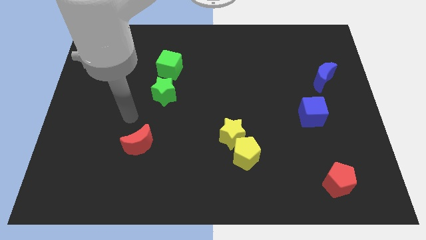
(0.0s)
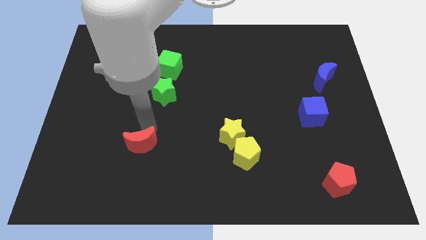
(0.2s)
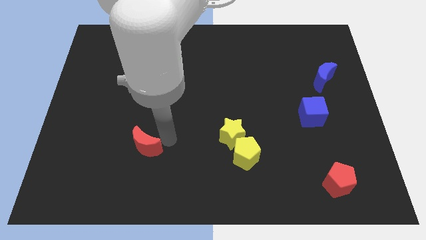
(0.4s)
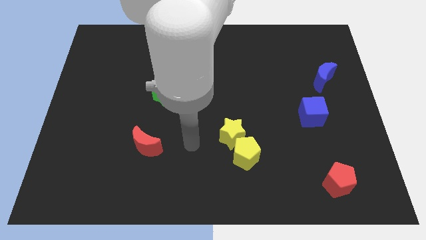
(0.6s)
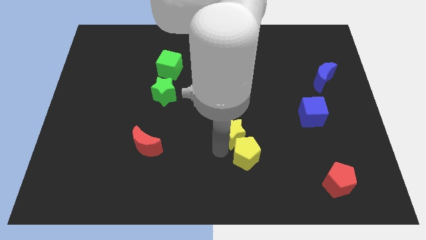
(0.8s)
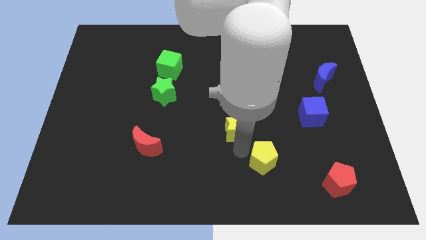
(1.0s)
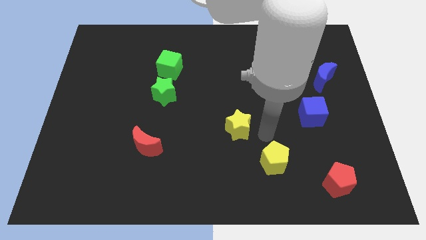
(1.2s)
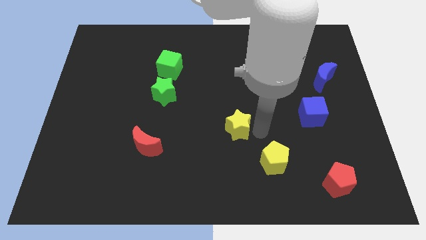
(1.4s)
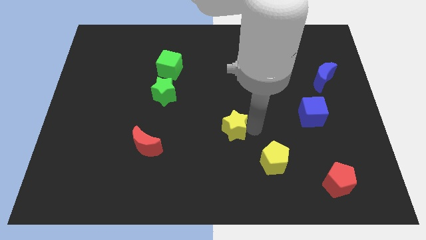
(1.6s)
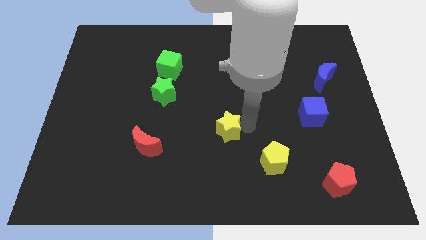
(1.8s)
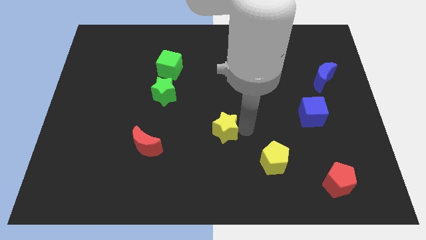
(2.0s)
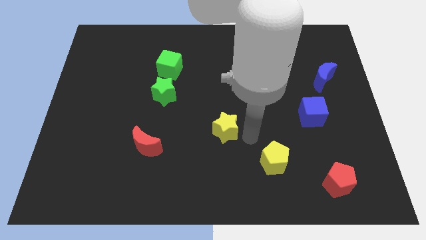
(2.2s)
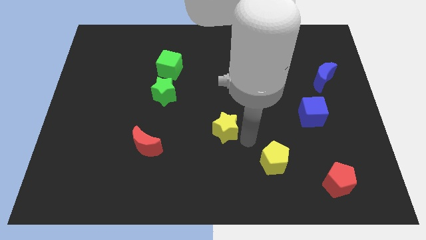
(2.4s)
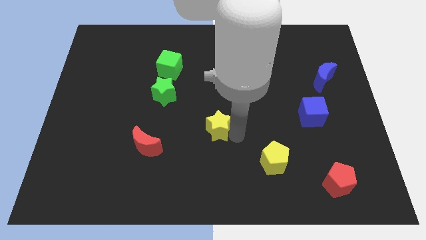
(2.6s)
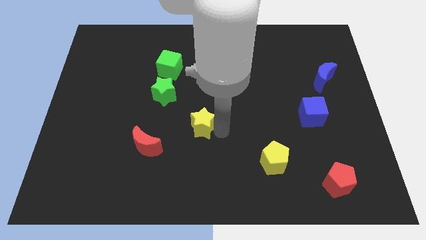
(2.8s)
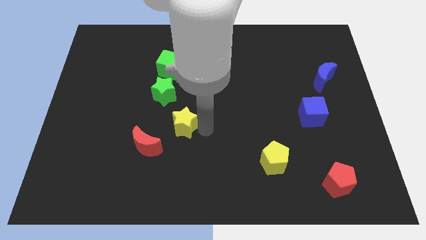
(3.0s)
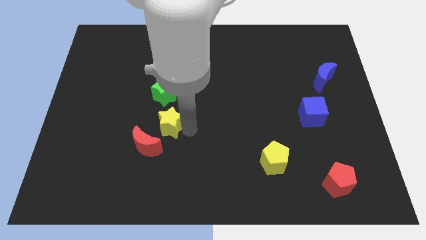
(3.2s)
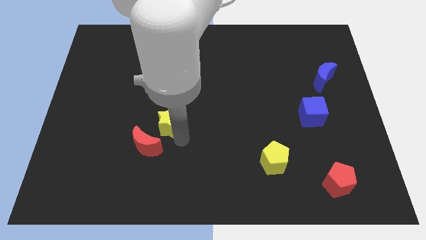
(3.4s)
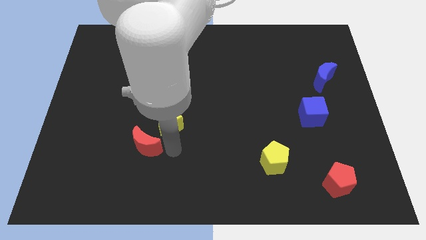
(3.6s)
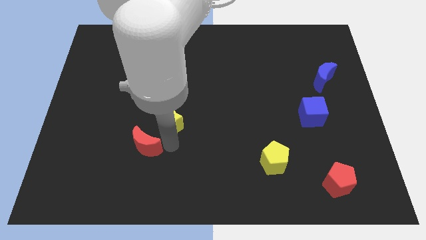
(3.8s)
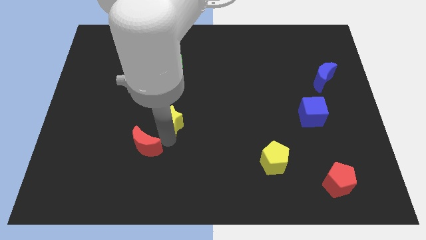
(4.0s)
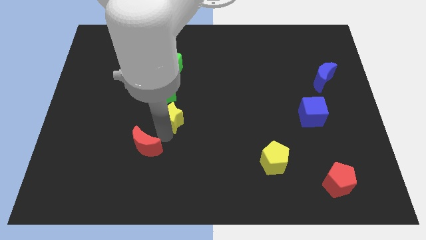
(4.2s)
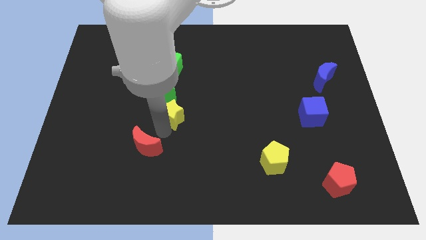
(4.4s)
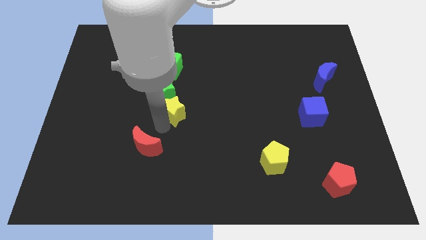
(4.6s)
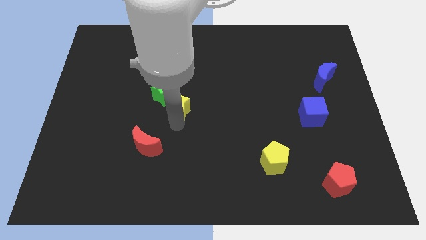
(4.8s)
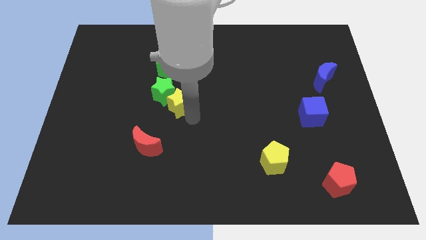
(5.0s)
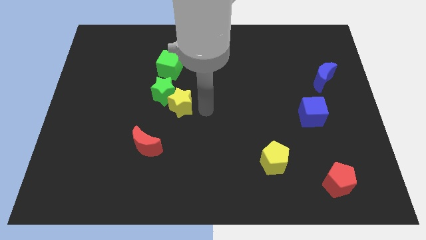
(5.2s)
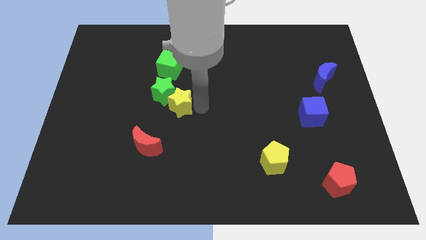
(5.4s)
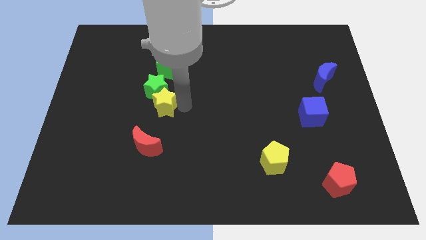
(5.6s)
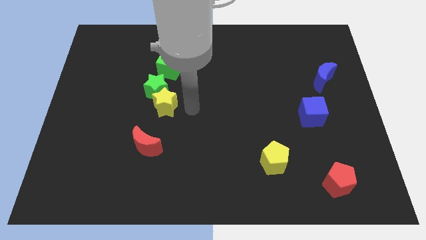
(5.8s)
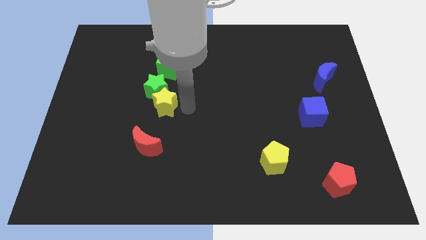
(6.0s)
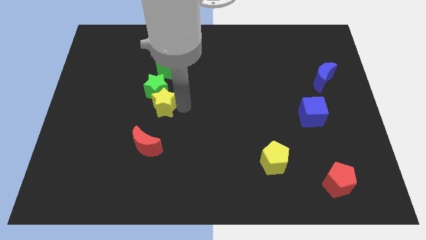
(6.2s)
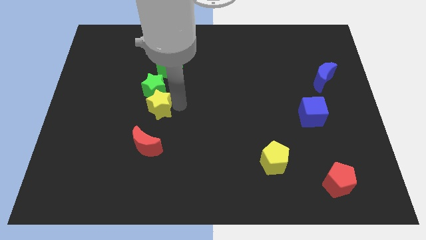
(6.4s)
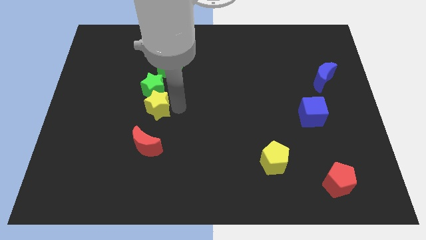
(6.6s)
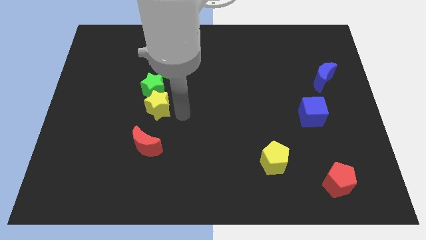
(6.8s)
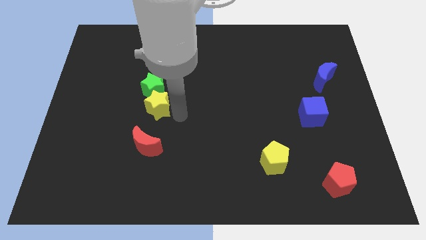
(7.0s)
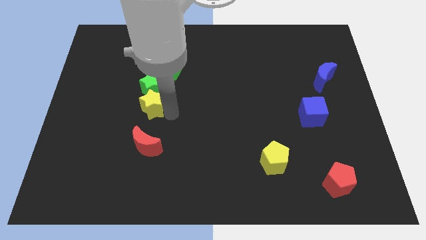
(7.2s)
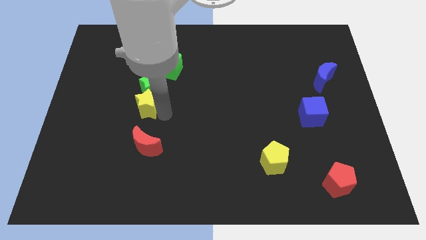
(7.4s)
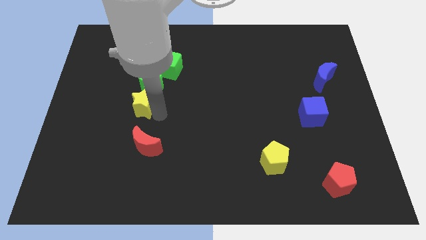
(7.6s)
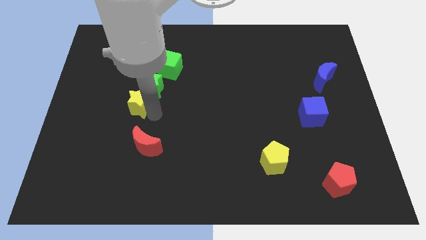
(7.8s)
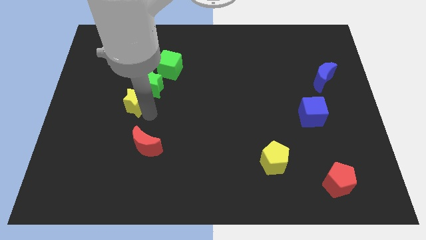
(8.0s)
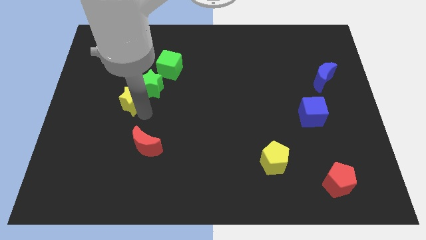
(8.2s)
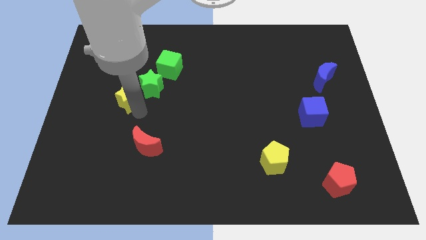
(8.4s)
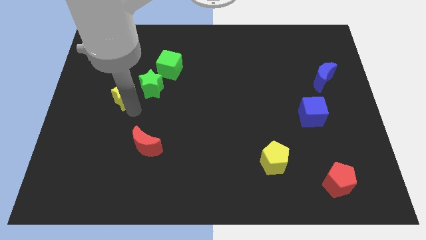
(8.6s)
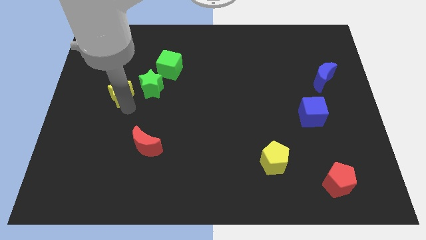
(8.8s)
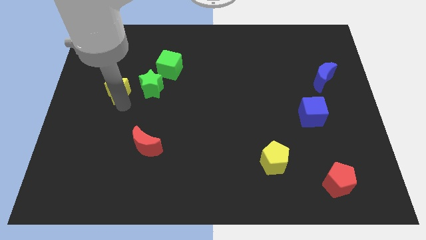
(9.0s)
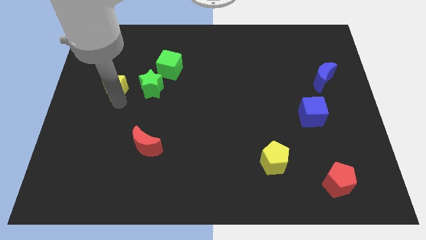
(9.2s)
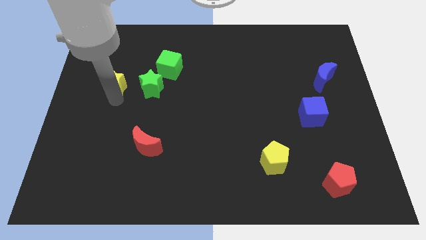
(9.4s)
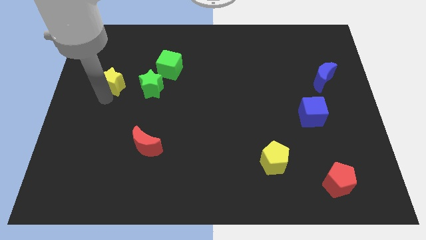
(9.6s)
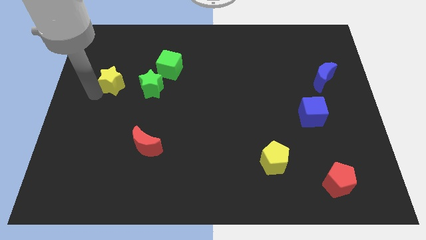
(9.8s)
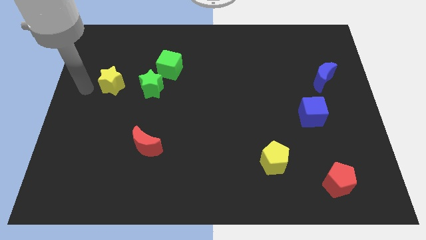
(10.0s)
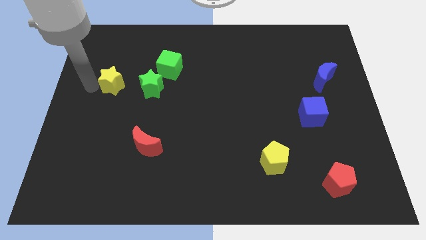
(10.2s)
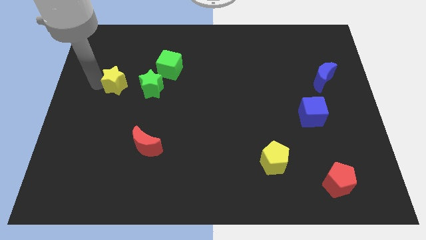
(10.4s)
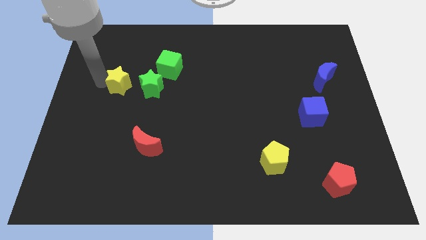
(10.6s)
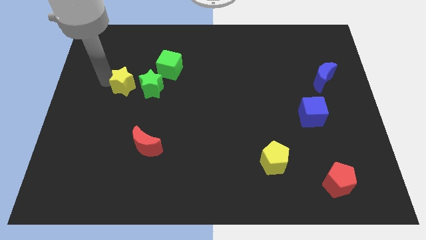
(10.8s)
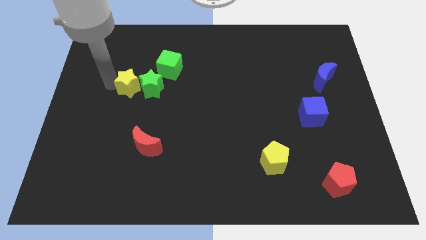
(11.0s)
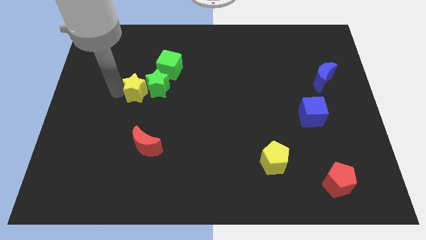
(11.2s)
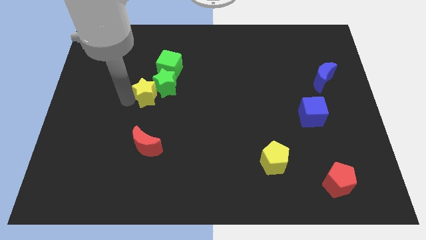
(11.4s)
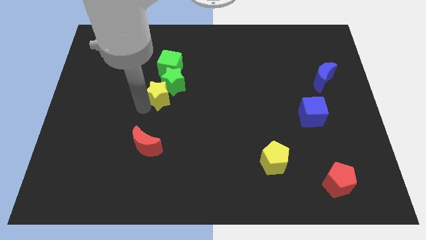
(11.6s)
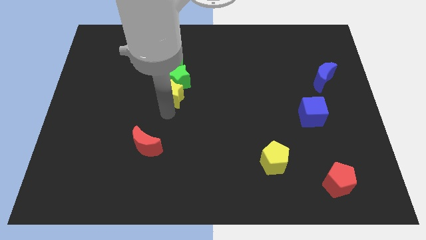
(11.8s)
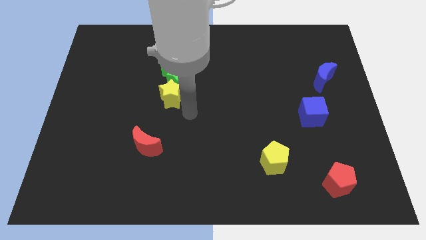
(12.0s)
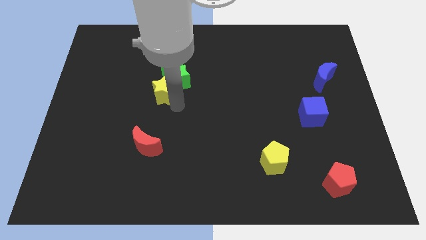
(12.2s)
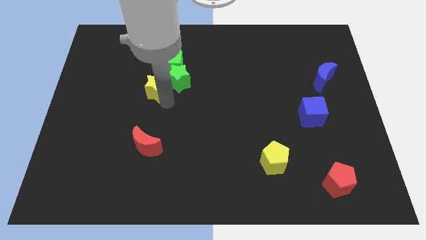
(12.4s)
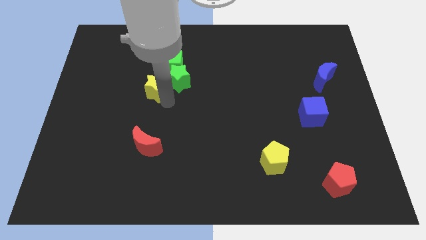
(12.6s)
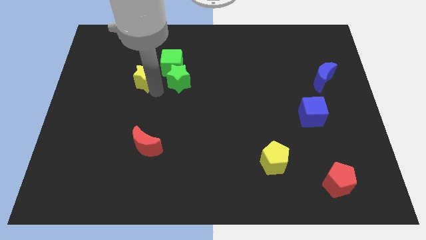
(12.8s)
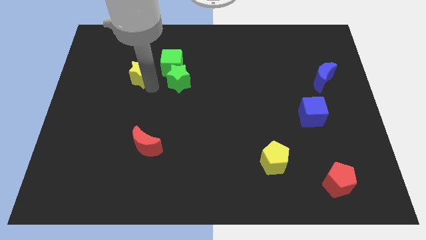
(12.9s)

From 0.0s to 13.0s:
slide the yellow star to the left of the green cube
